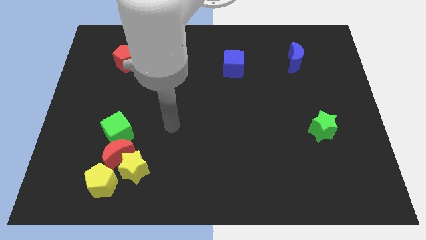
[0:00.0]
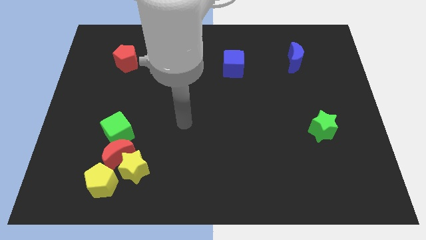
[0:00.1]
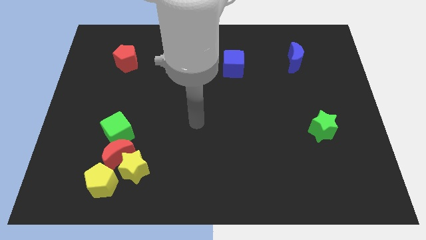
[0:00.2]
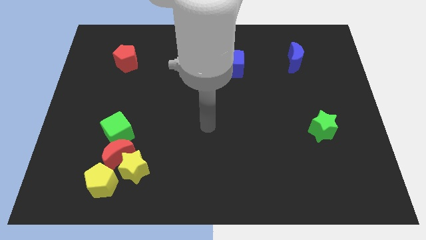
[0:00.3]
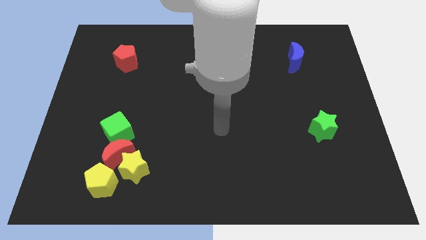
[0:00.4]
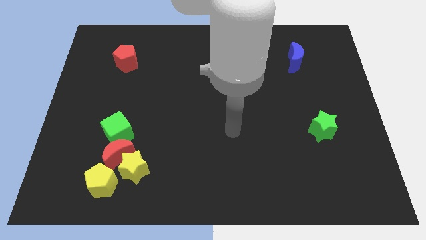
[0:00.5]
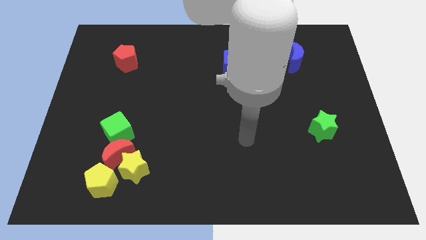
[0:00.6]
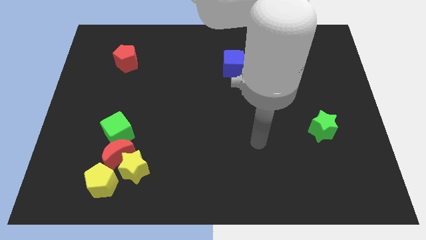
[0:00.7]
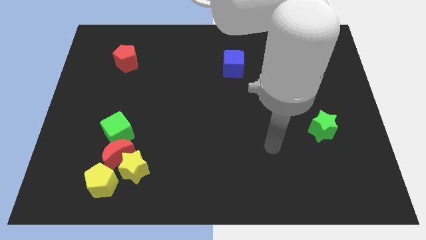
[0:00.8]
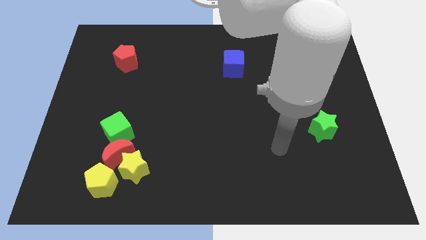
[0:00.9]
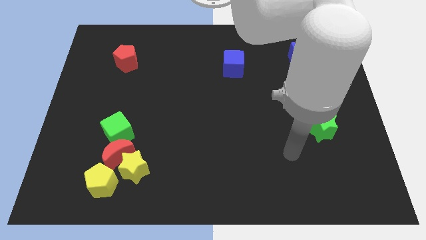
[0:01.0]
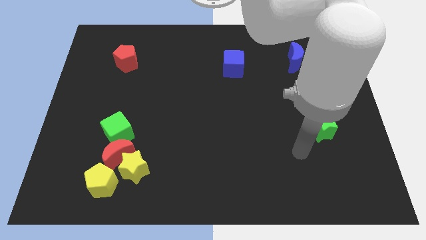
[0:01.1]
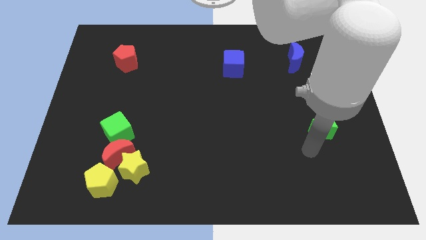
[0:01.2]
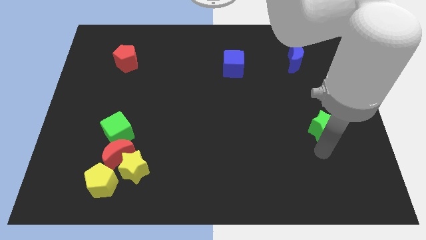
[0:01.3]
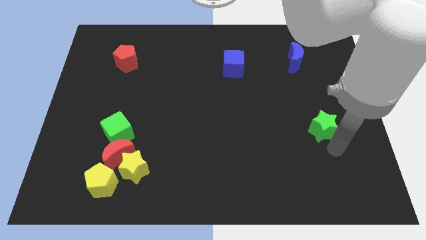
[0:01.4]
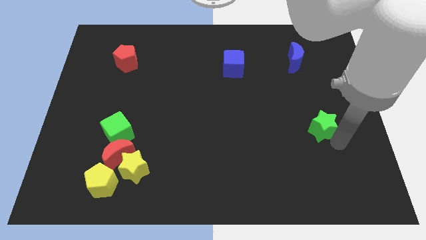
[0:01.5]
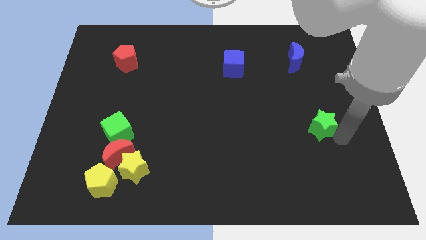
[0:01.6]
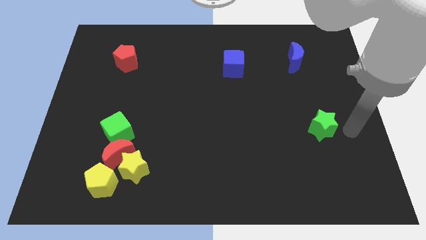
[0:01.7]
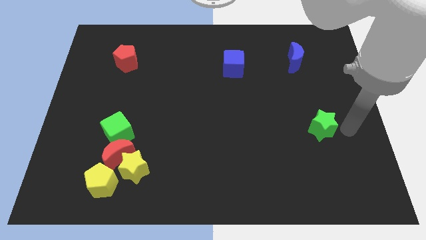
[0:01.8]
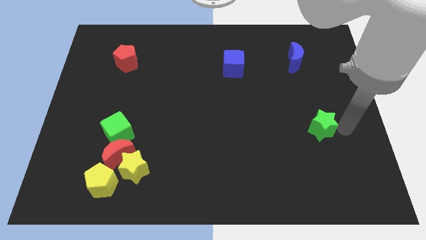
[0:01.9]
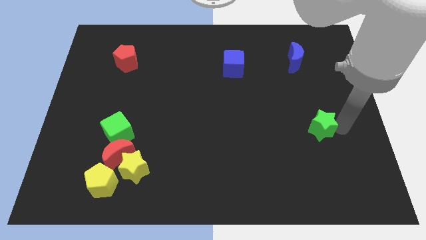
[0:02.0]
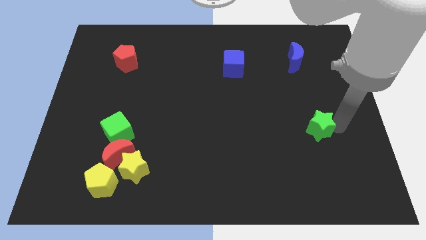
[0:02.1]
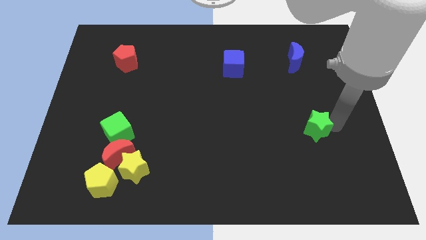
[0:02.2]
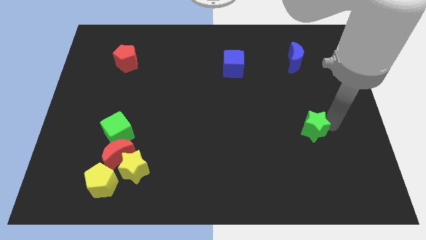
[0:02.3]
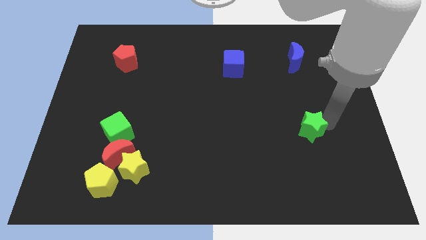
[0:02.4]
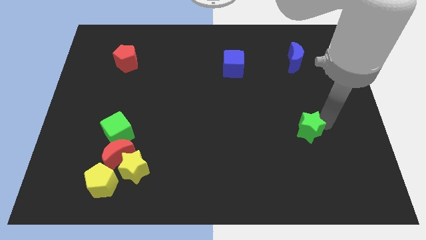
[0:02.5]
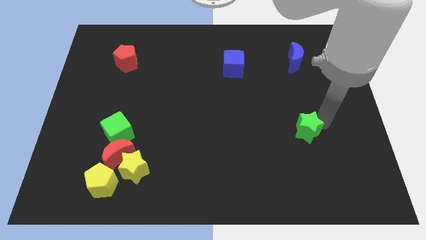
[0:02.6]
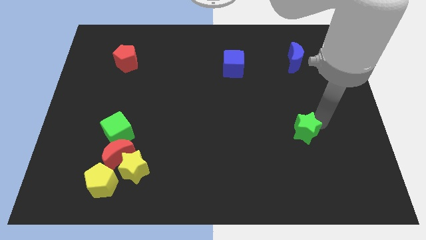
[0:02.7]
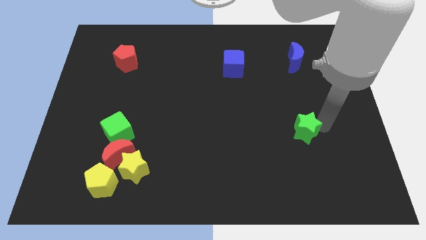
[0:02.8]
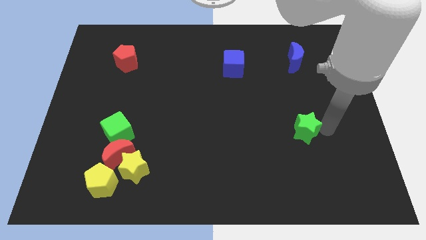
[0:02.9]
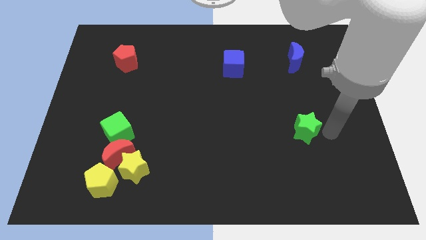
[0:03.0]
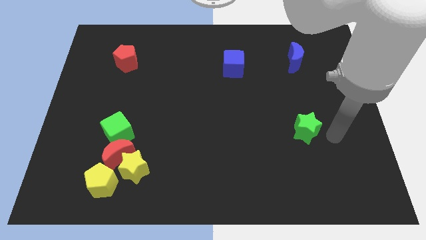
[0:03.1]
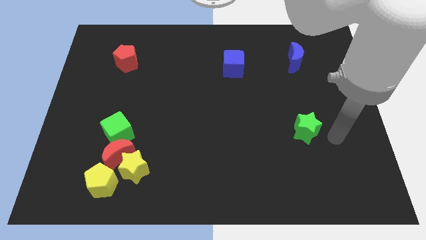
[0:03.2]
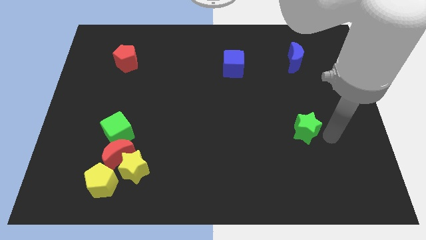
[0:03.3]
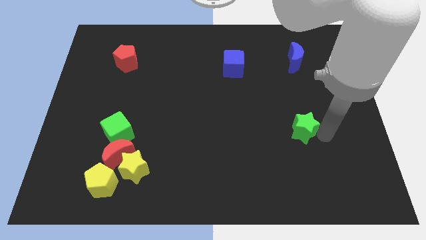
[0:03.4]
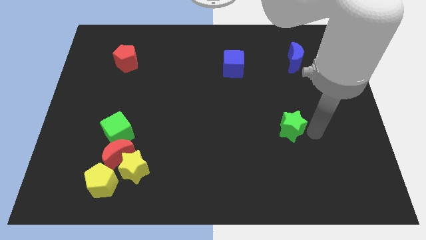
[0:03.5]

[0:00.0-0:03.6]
push the green star left a little bit

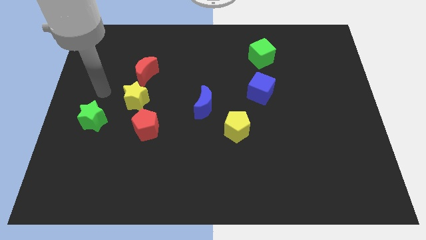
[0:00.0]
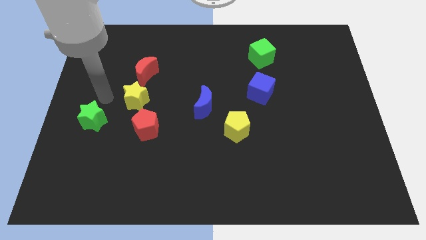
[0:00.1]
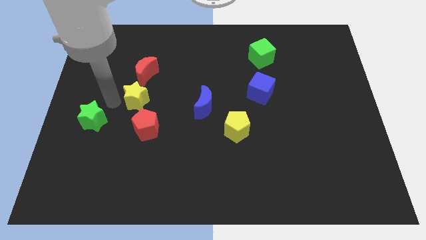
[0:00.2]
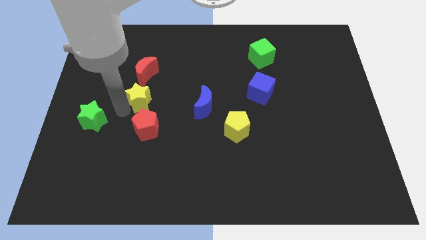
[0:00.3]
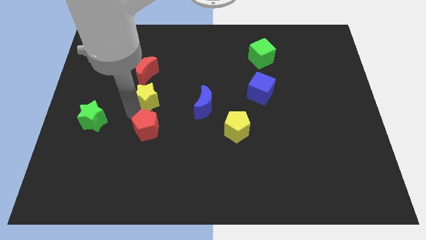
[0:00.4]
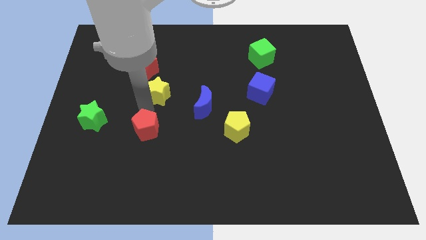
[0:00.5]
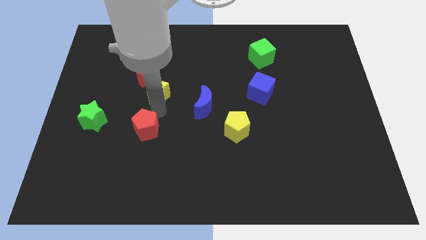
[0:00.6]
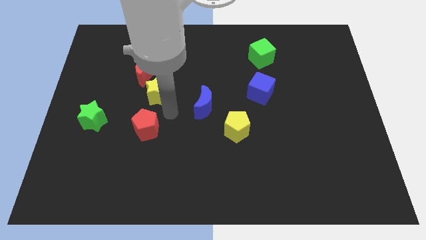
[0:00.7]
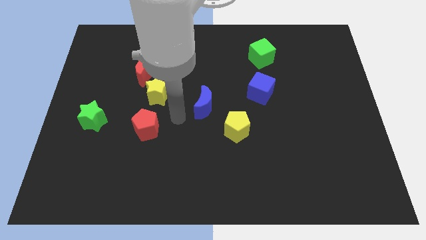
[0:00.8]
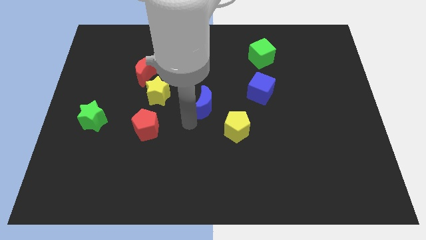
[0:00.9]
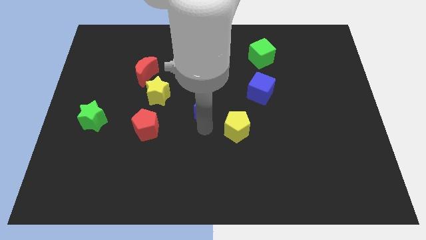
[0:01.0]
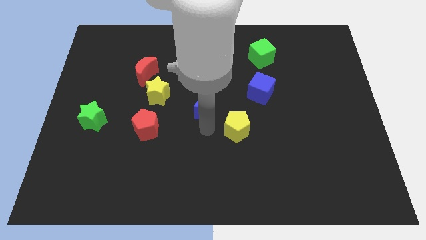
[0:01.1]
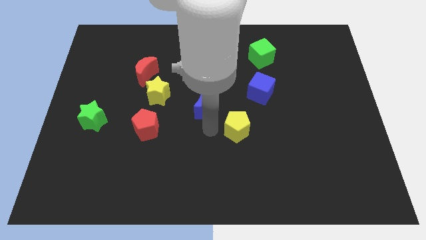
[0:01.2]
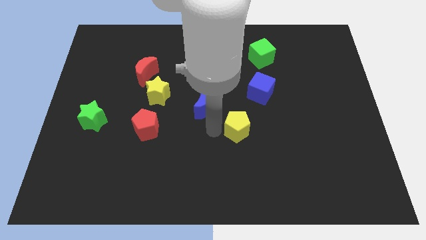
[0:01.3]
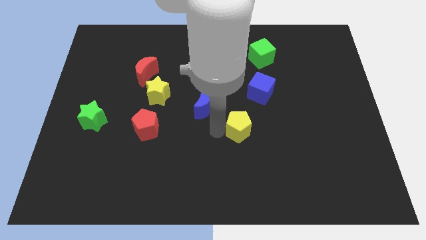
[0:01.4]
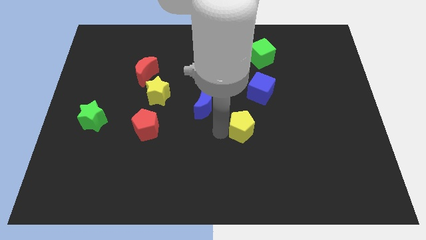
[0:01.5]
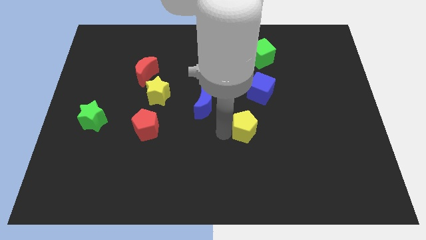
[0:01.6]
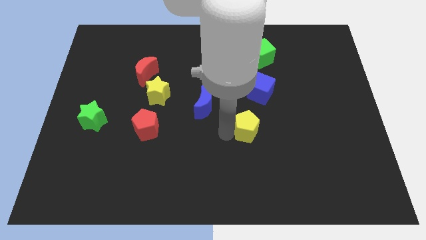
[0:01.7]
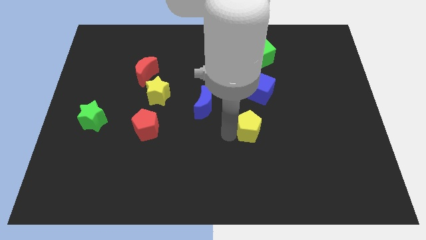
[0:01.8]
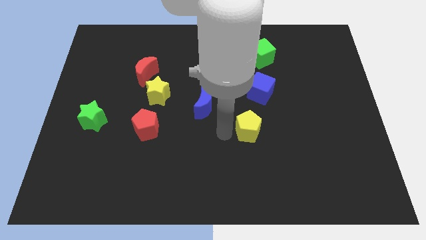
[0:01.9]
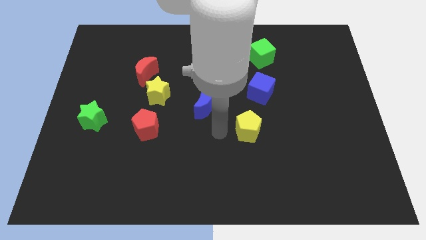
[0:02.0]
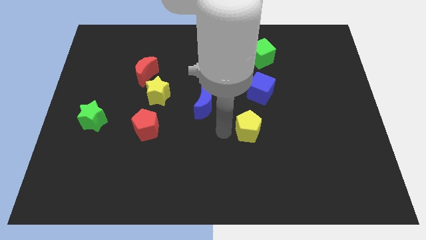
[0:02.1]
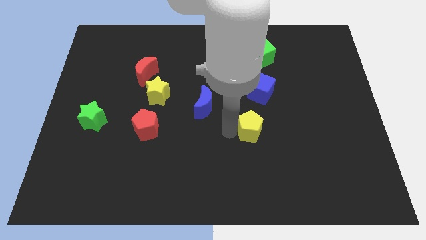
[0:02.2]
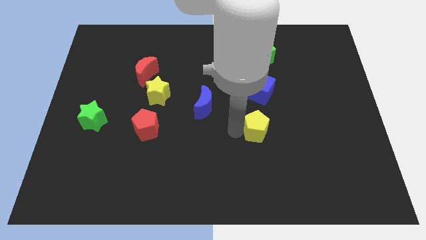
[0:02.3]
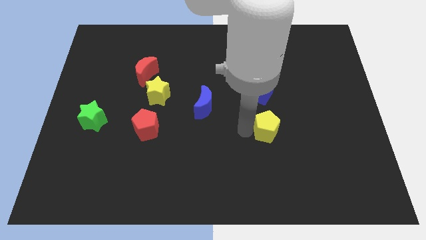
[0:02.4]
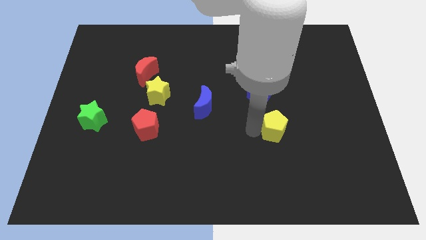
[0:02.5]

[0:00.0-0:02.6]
slightly move the yellow pentagon right

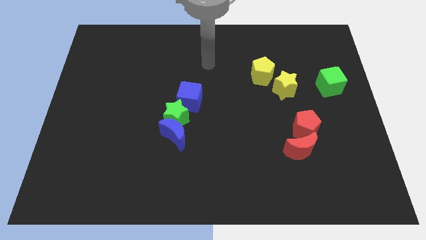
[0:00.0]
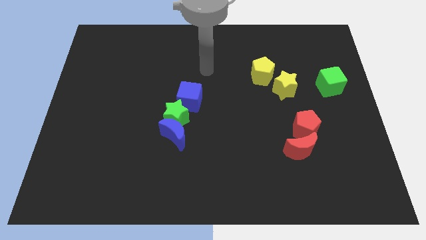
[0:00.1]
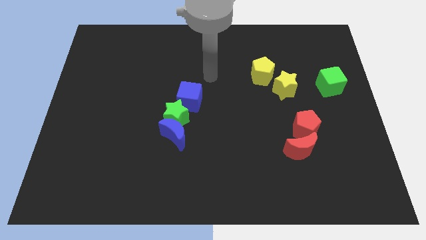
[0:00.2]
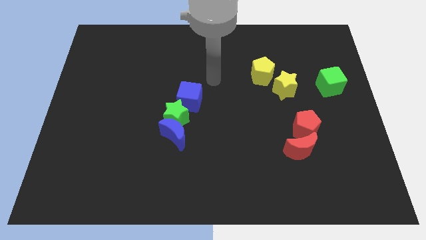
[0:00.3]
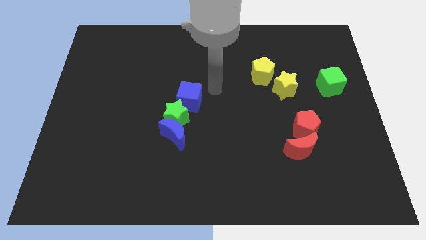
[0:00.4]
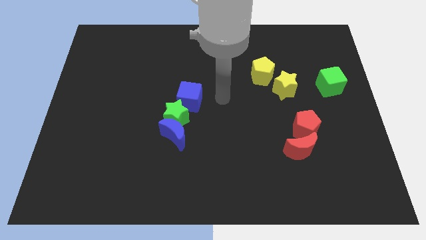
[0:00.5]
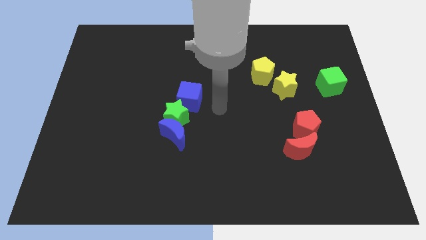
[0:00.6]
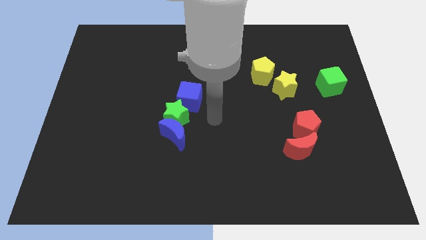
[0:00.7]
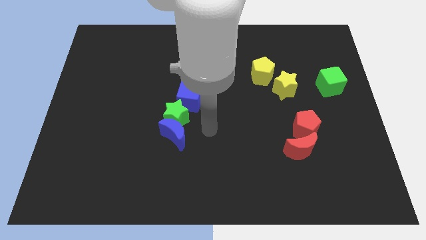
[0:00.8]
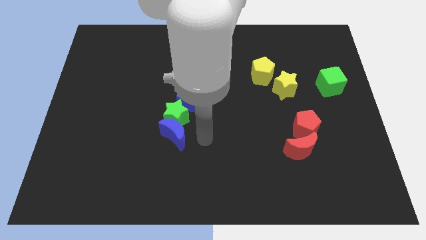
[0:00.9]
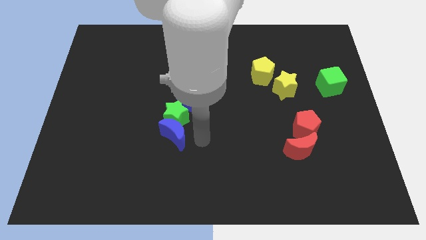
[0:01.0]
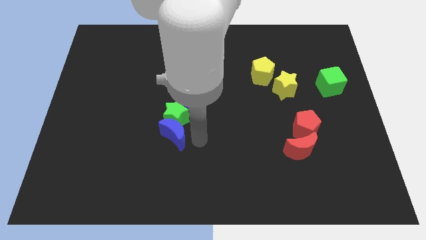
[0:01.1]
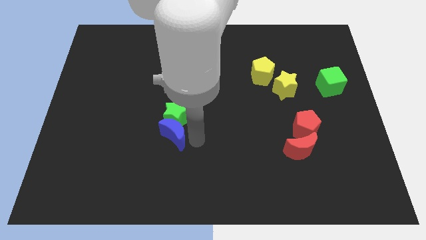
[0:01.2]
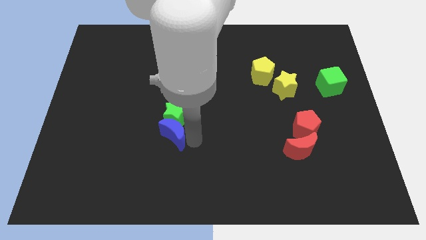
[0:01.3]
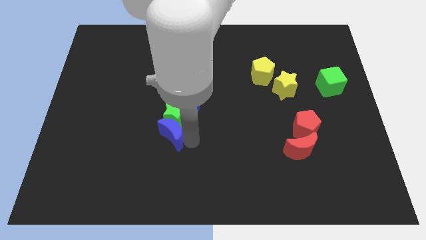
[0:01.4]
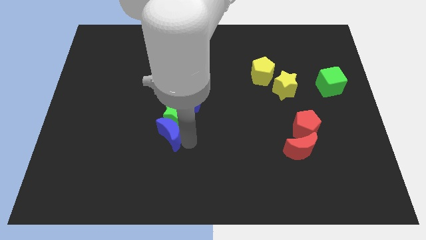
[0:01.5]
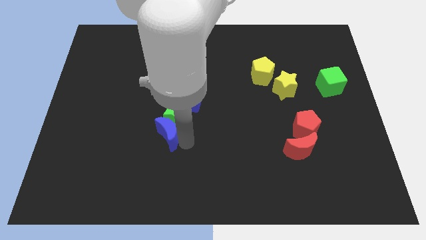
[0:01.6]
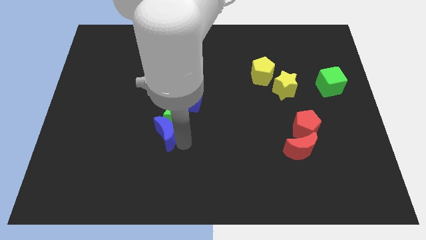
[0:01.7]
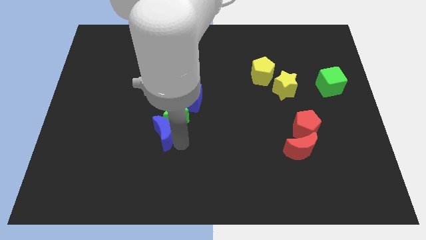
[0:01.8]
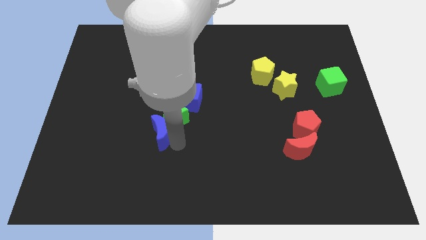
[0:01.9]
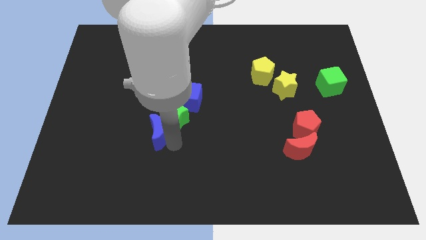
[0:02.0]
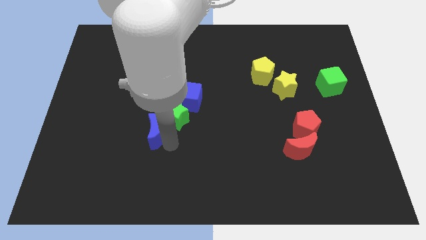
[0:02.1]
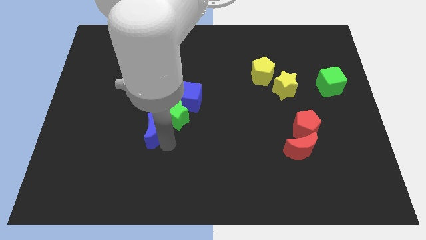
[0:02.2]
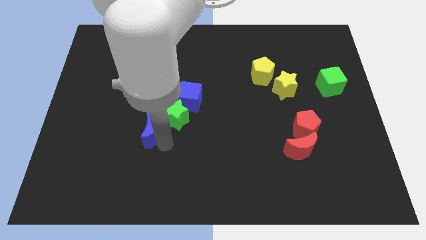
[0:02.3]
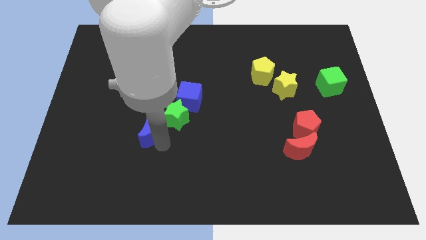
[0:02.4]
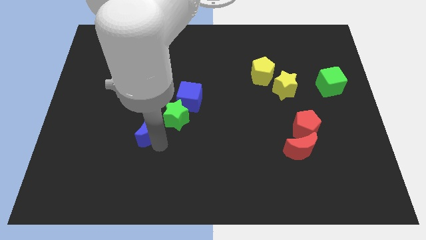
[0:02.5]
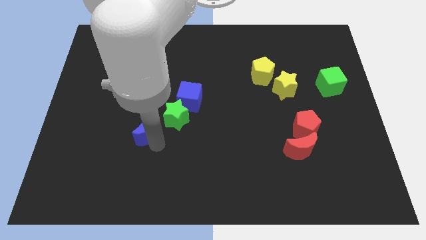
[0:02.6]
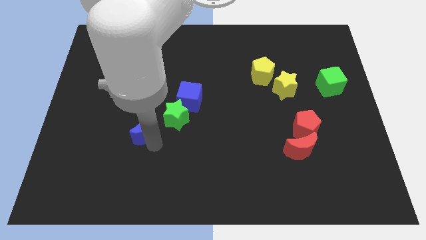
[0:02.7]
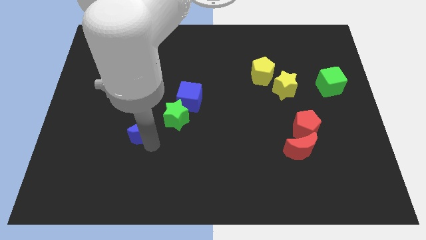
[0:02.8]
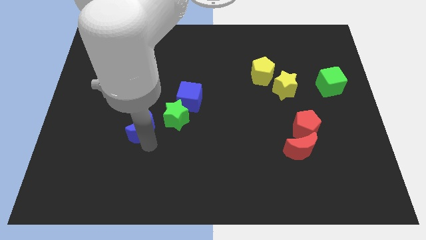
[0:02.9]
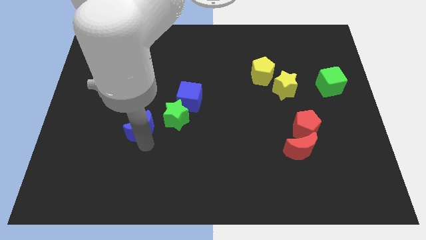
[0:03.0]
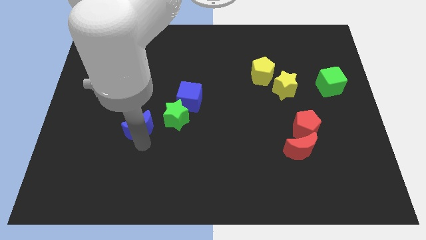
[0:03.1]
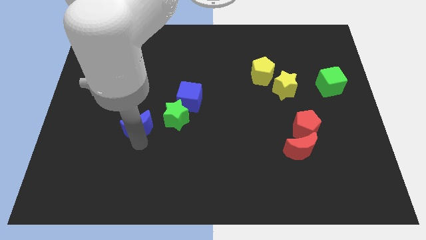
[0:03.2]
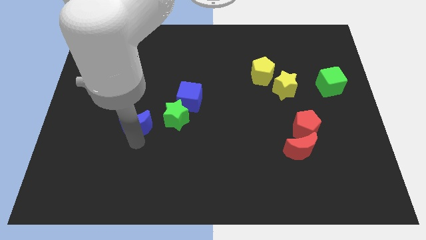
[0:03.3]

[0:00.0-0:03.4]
move the blue moon upwards and to the left a bit
